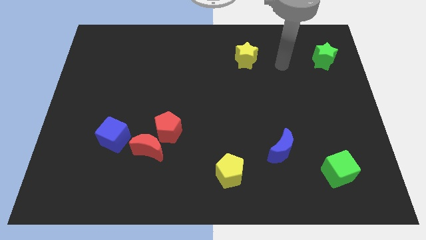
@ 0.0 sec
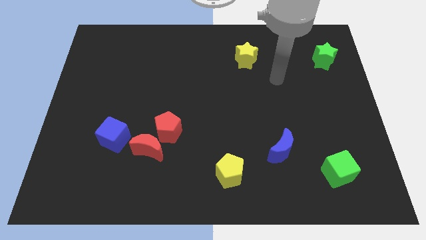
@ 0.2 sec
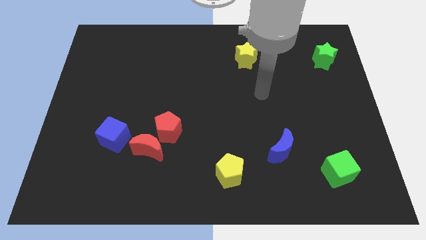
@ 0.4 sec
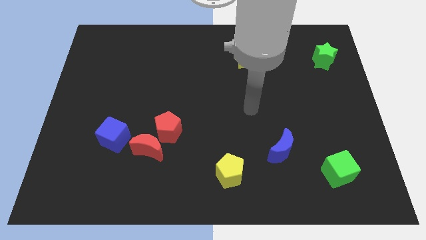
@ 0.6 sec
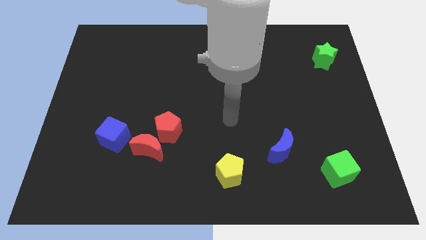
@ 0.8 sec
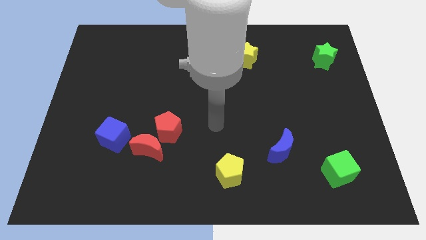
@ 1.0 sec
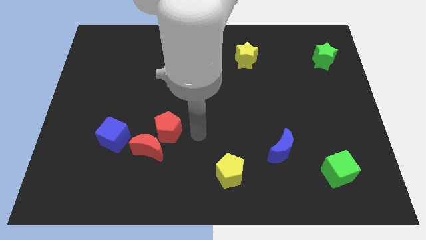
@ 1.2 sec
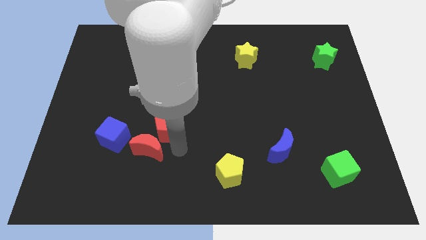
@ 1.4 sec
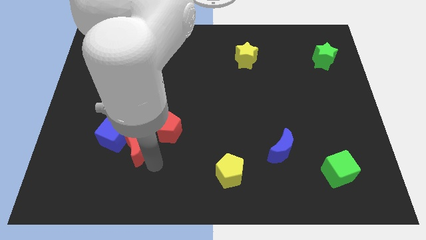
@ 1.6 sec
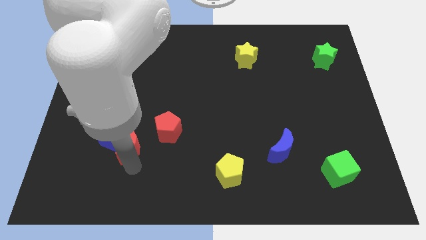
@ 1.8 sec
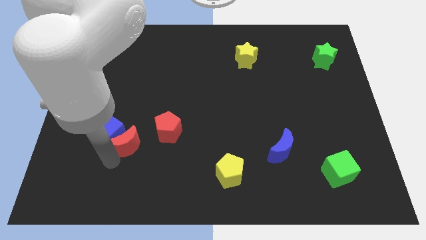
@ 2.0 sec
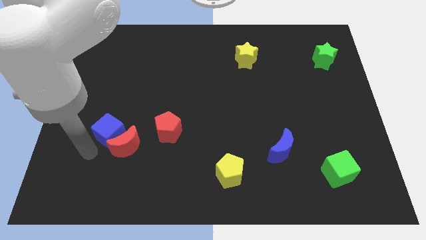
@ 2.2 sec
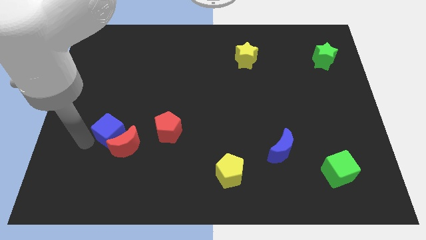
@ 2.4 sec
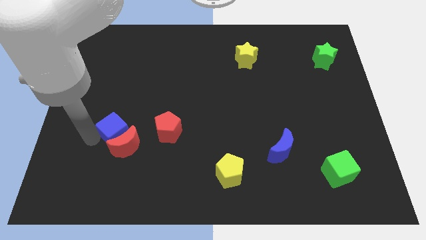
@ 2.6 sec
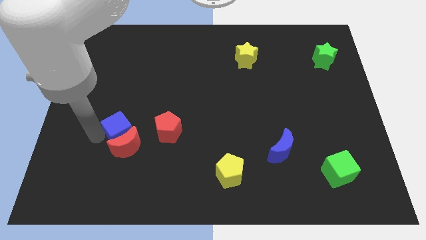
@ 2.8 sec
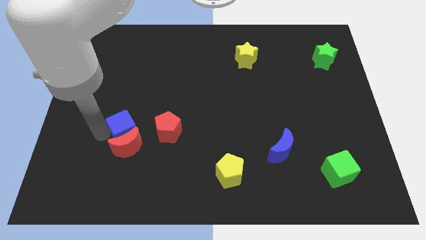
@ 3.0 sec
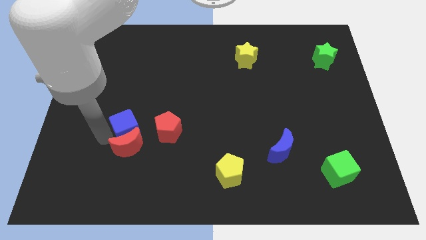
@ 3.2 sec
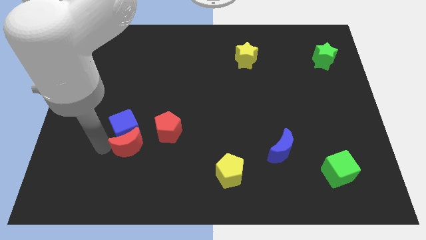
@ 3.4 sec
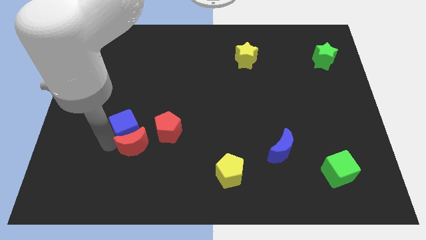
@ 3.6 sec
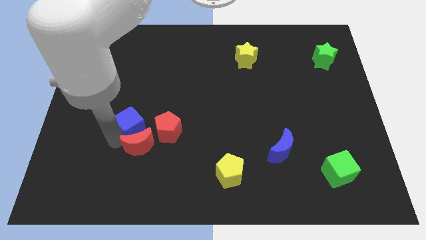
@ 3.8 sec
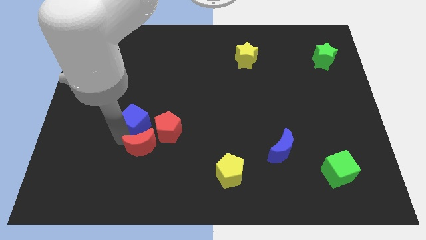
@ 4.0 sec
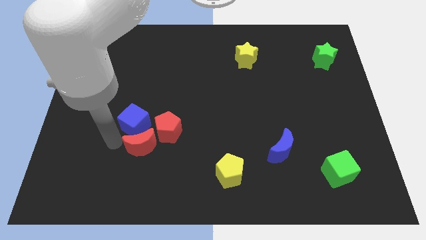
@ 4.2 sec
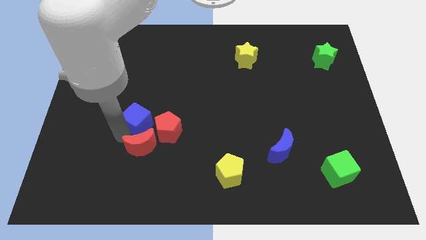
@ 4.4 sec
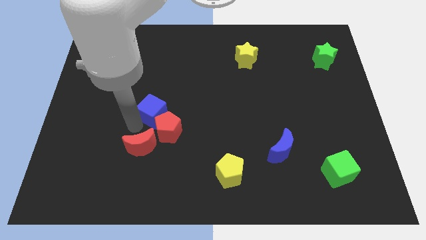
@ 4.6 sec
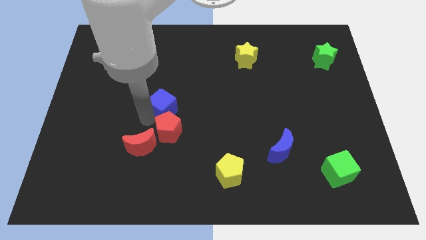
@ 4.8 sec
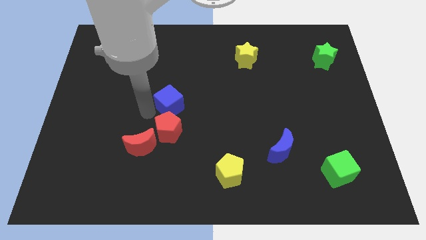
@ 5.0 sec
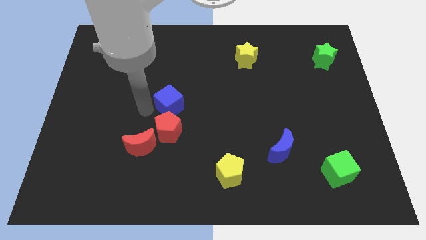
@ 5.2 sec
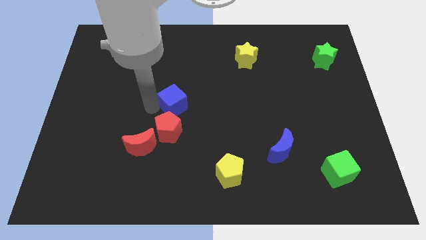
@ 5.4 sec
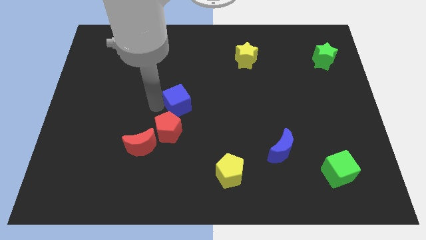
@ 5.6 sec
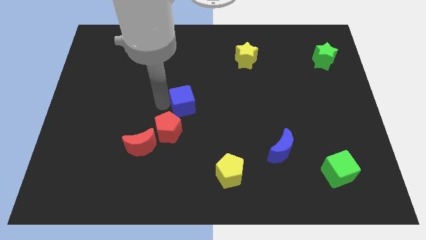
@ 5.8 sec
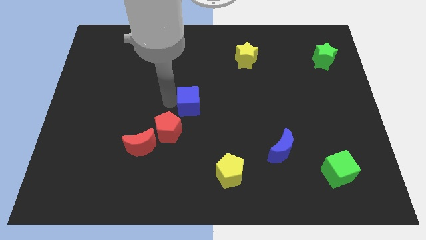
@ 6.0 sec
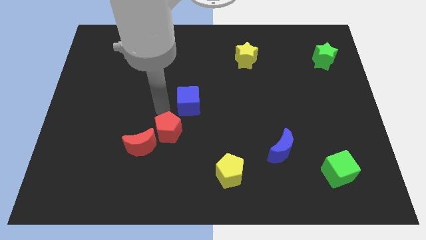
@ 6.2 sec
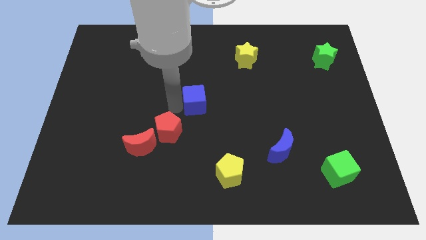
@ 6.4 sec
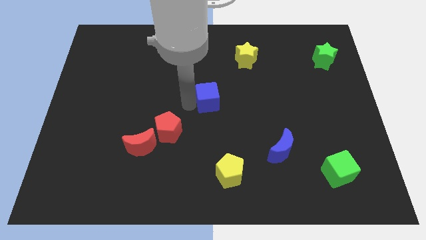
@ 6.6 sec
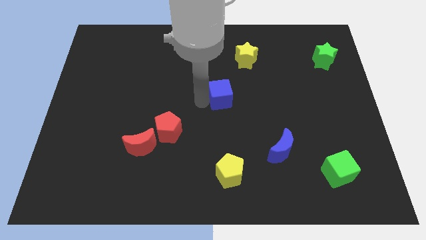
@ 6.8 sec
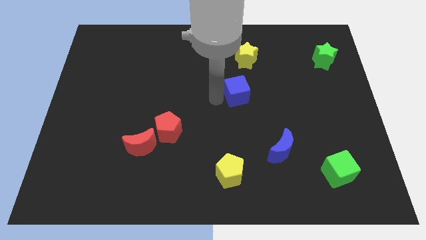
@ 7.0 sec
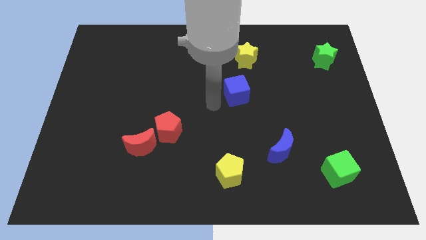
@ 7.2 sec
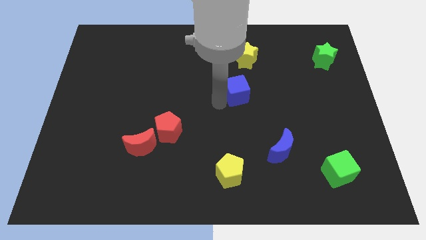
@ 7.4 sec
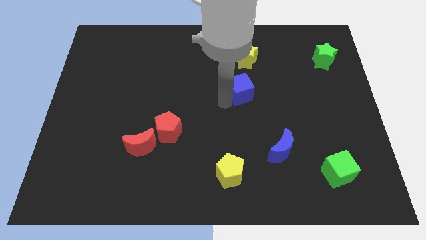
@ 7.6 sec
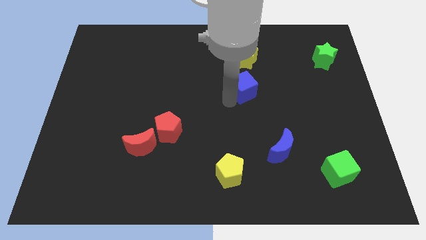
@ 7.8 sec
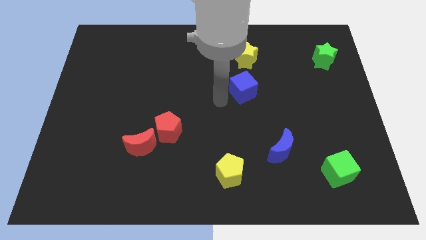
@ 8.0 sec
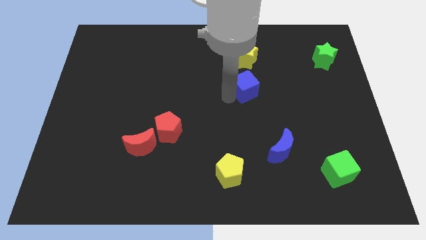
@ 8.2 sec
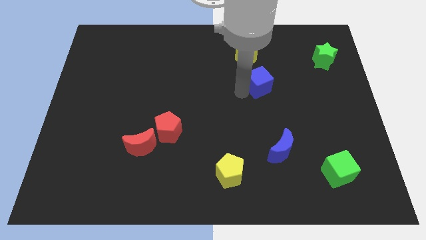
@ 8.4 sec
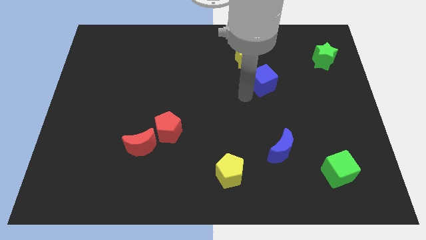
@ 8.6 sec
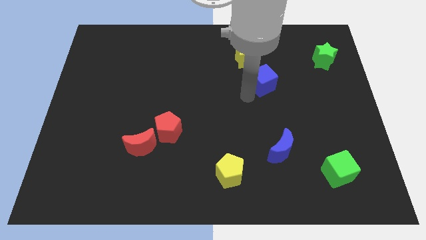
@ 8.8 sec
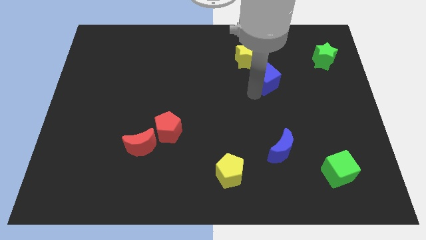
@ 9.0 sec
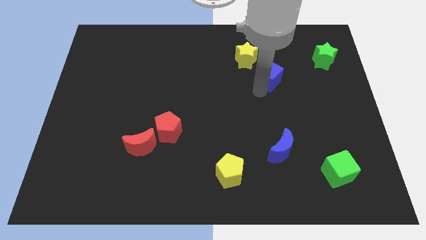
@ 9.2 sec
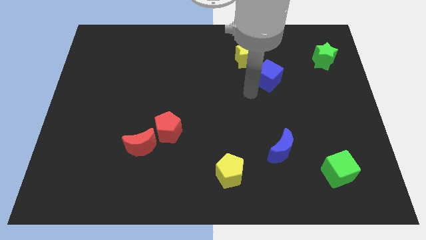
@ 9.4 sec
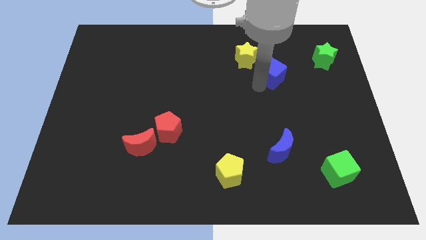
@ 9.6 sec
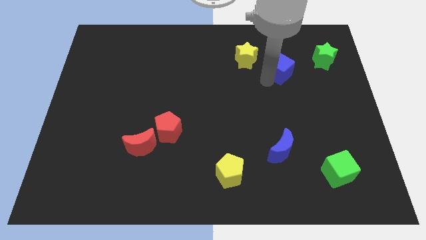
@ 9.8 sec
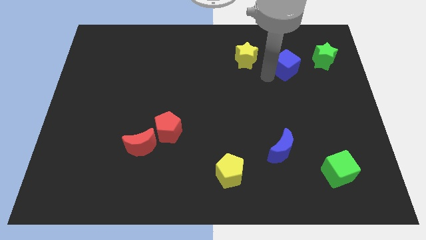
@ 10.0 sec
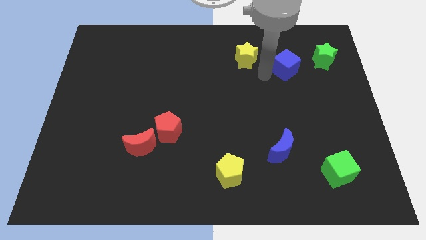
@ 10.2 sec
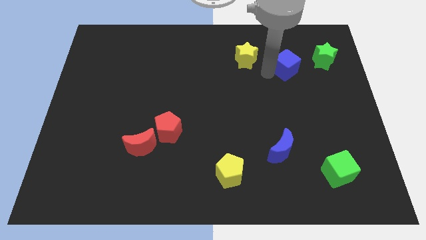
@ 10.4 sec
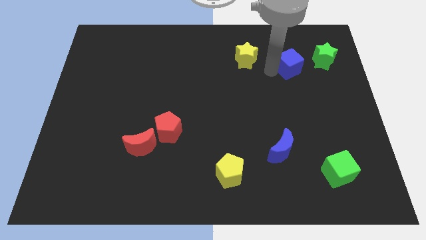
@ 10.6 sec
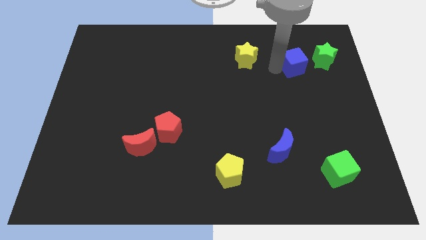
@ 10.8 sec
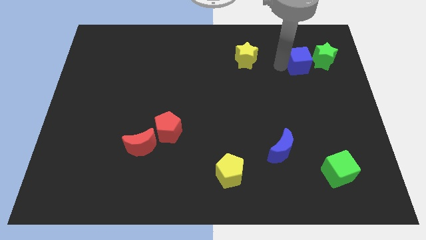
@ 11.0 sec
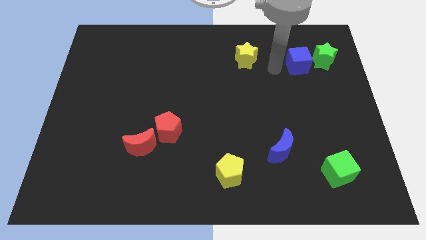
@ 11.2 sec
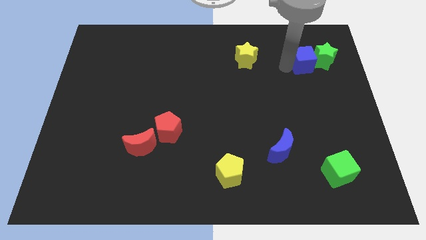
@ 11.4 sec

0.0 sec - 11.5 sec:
move the blue cube close to the green star
